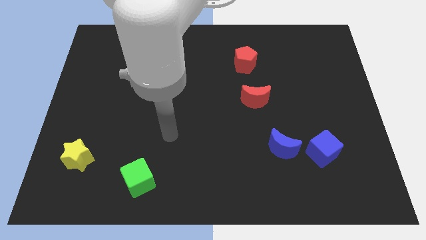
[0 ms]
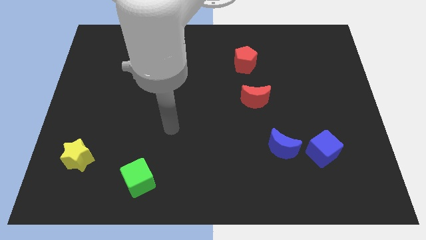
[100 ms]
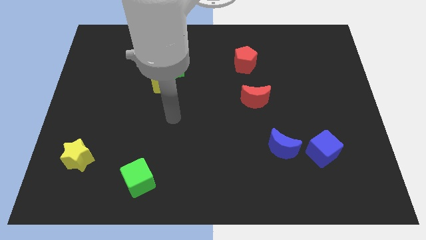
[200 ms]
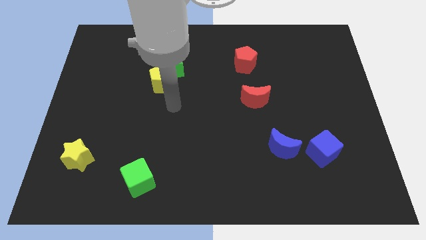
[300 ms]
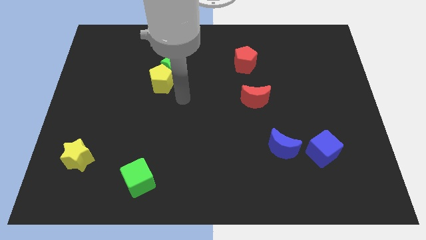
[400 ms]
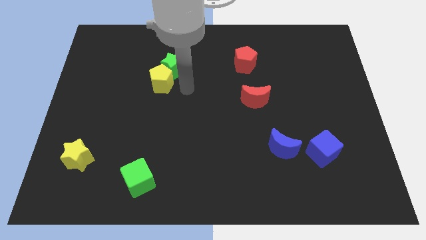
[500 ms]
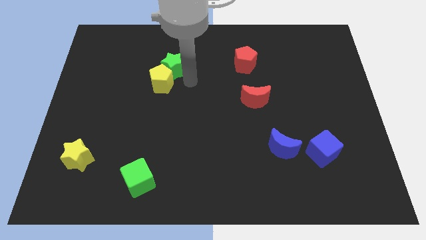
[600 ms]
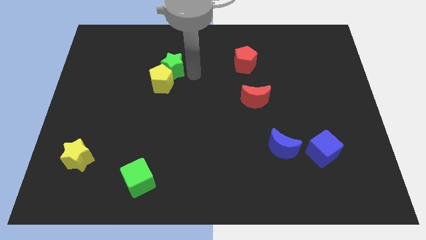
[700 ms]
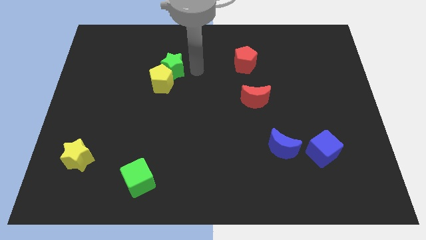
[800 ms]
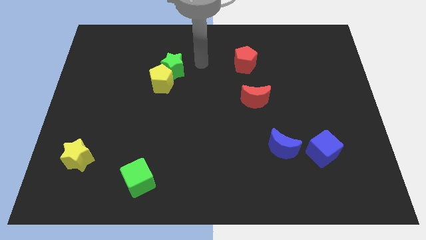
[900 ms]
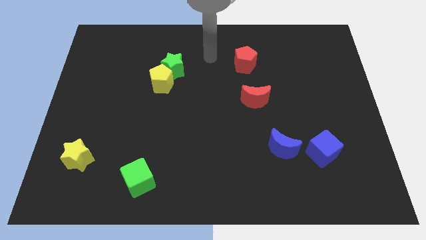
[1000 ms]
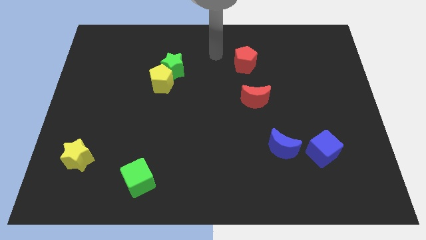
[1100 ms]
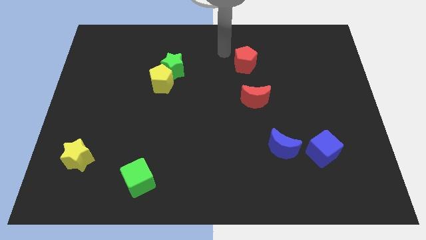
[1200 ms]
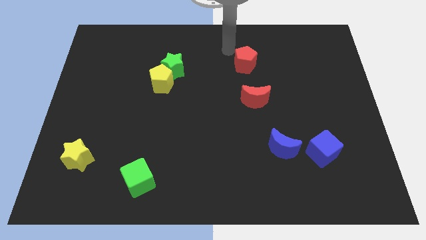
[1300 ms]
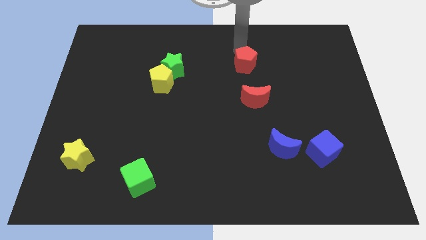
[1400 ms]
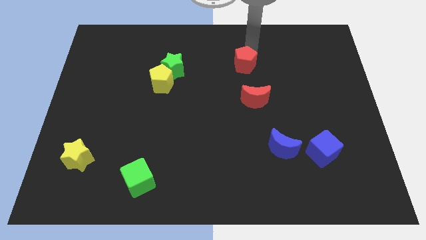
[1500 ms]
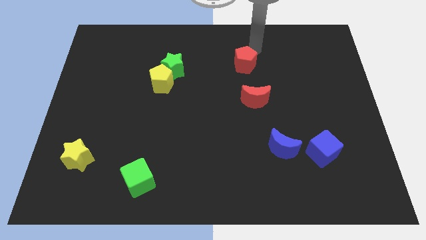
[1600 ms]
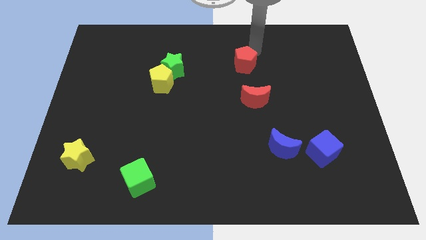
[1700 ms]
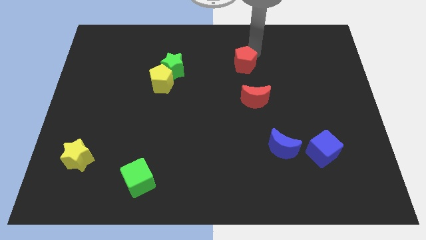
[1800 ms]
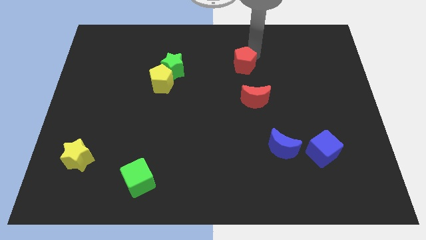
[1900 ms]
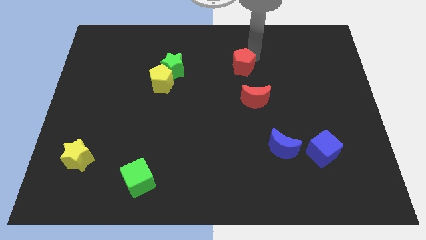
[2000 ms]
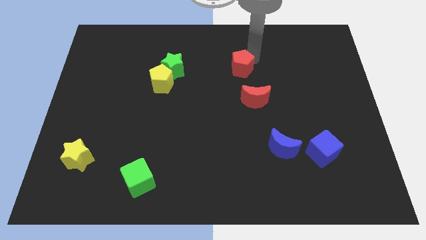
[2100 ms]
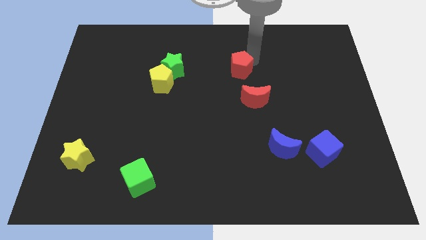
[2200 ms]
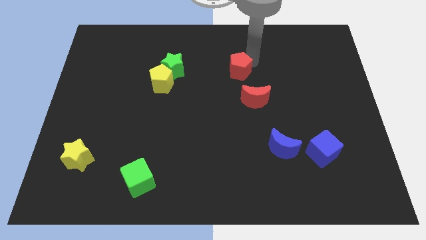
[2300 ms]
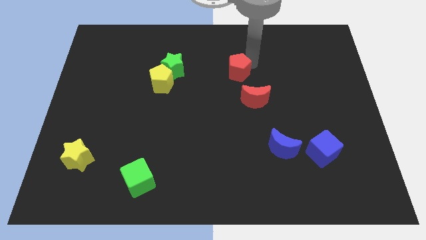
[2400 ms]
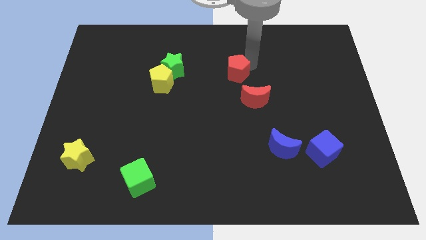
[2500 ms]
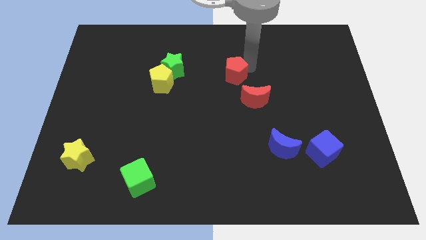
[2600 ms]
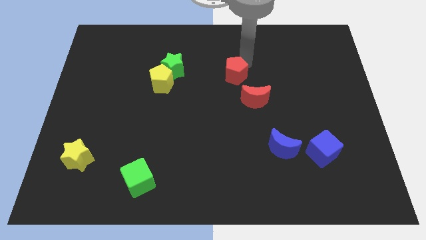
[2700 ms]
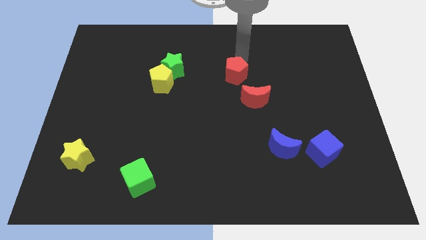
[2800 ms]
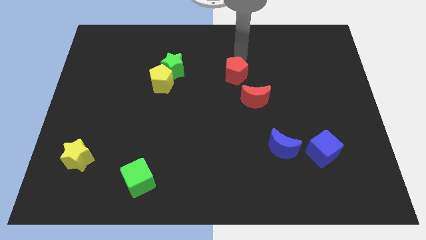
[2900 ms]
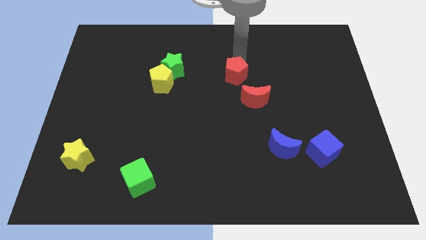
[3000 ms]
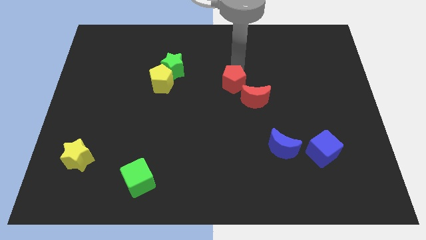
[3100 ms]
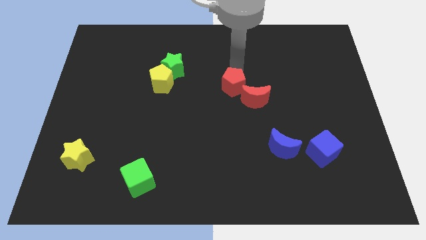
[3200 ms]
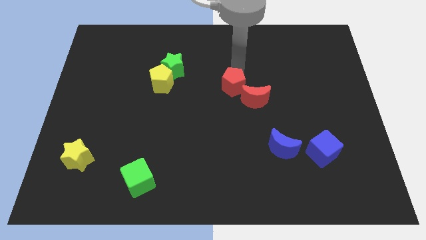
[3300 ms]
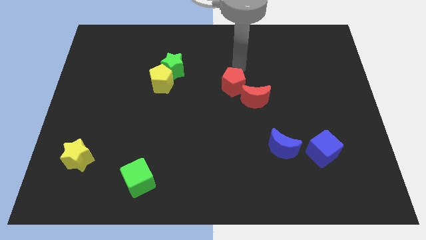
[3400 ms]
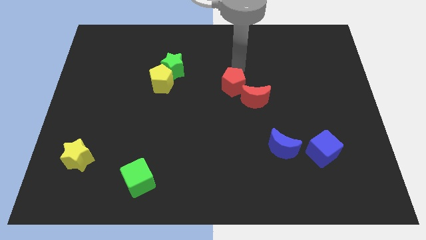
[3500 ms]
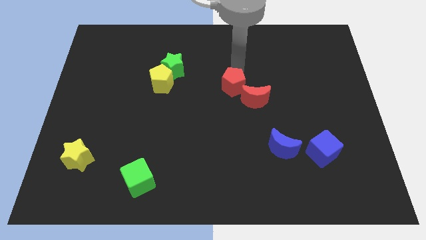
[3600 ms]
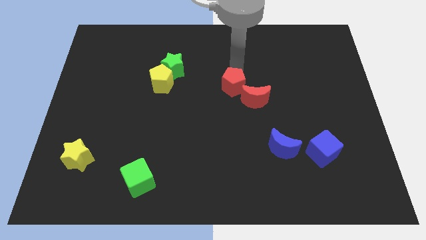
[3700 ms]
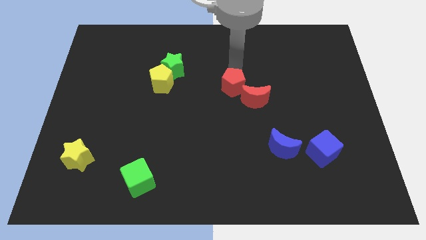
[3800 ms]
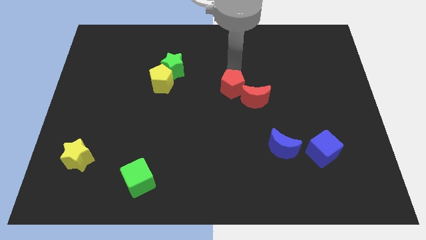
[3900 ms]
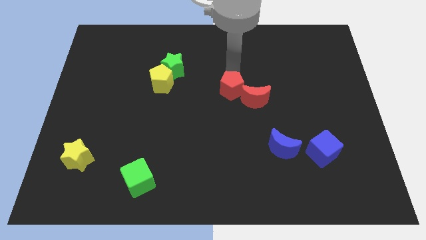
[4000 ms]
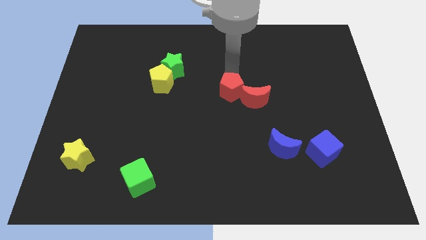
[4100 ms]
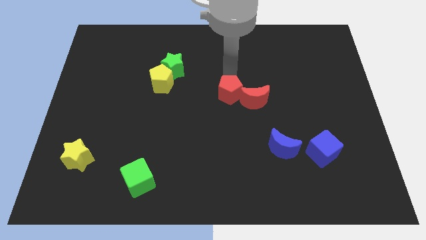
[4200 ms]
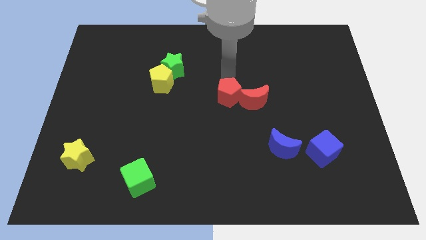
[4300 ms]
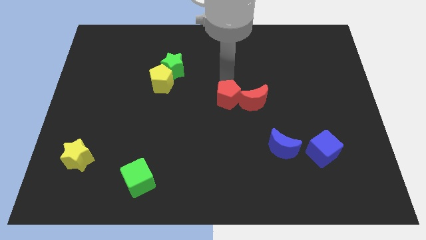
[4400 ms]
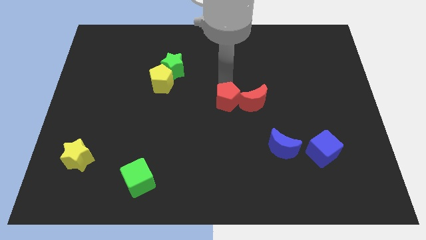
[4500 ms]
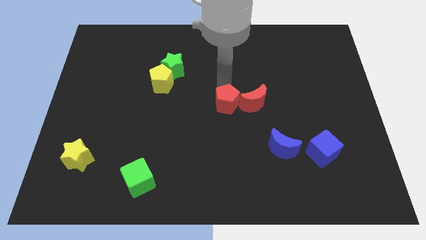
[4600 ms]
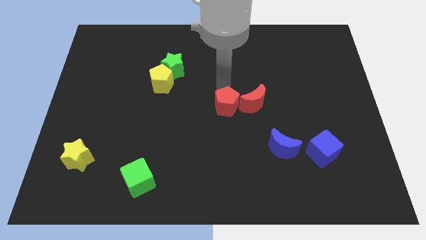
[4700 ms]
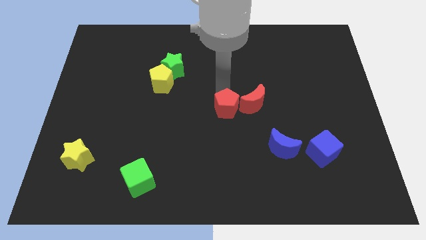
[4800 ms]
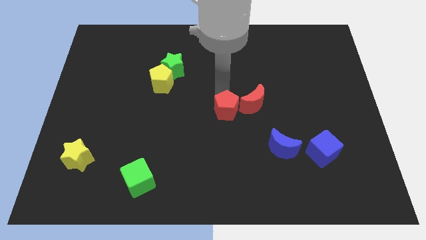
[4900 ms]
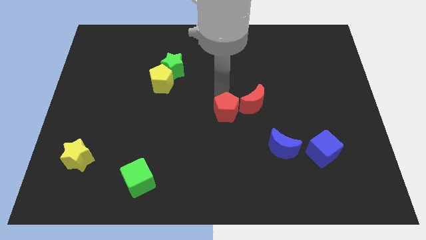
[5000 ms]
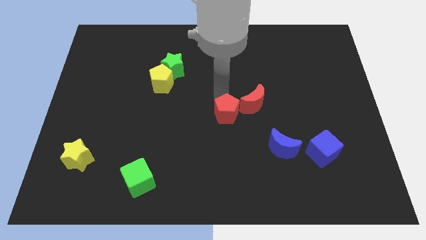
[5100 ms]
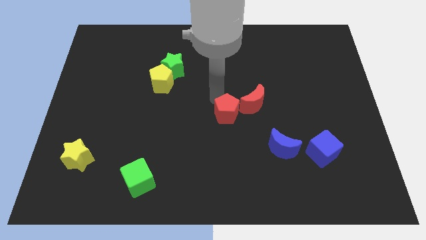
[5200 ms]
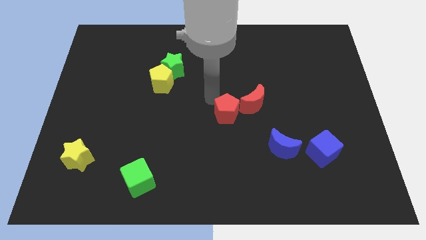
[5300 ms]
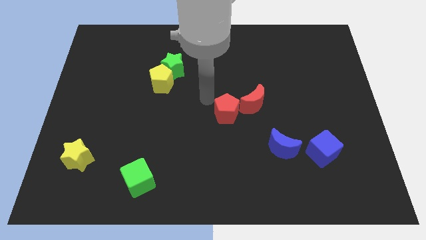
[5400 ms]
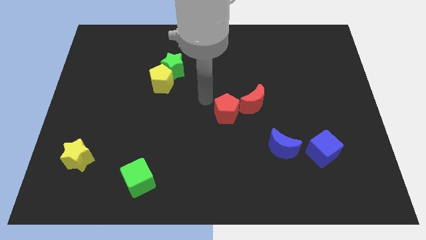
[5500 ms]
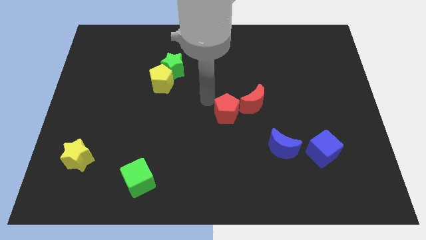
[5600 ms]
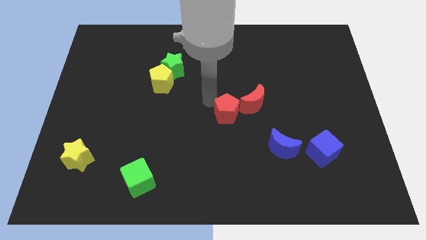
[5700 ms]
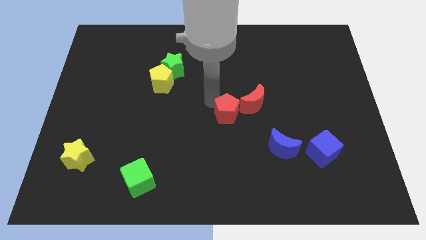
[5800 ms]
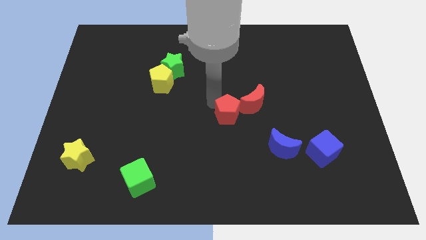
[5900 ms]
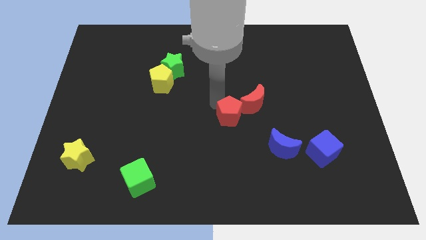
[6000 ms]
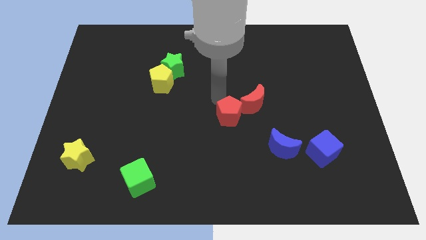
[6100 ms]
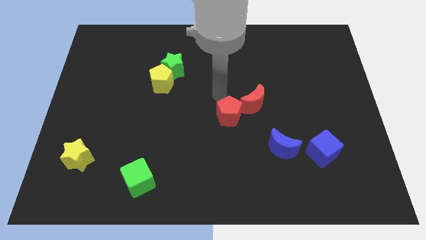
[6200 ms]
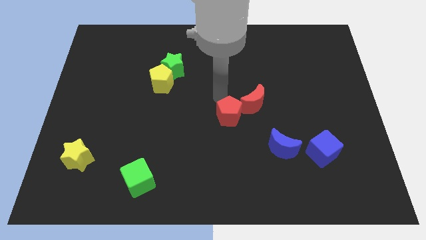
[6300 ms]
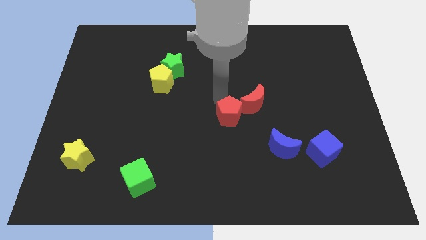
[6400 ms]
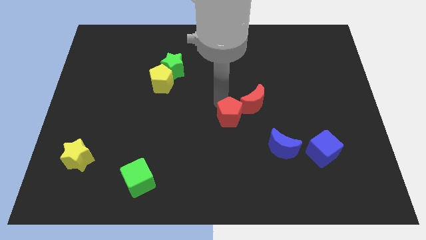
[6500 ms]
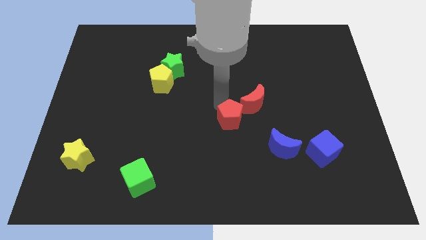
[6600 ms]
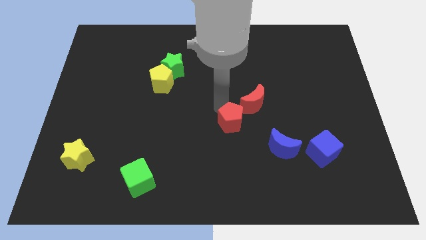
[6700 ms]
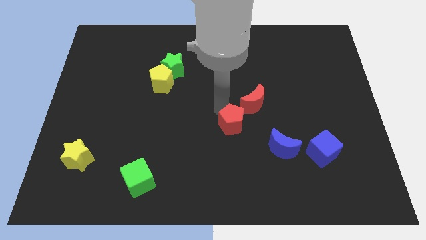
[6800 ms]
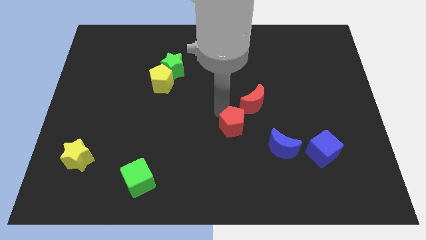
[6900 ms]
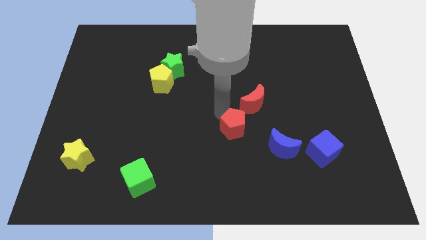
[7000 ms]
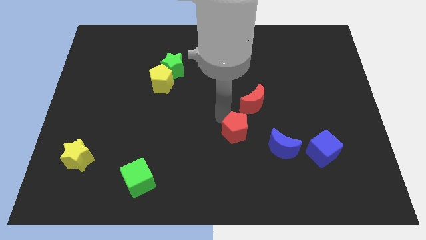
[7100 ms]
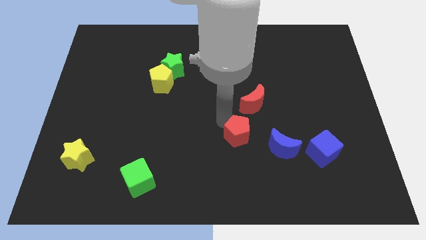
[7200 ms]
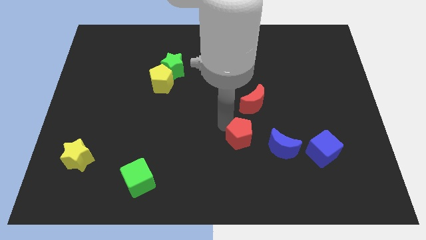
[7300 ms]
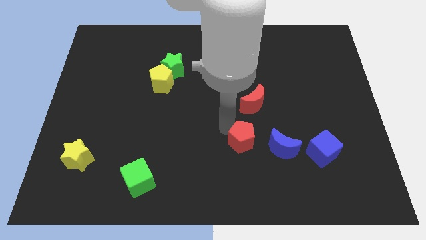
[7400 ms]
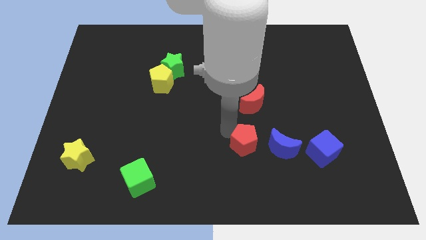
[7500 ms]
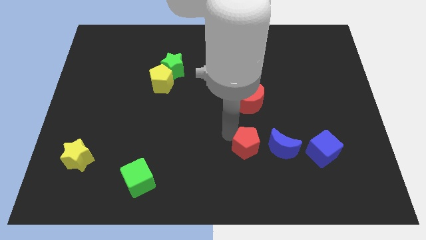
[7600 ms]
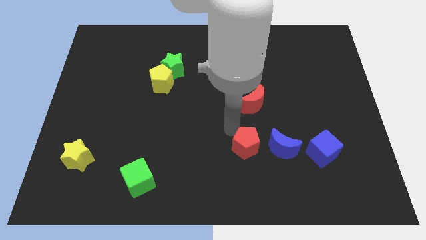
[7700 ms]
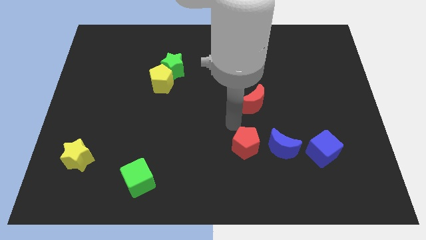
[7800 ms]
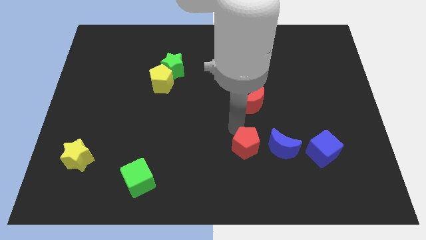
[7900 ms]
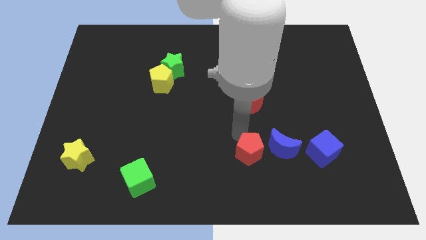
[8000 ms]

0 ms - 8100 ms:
slide the red pentagon to the bottom left side of the blue moon
